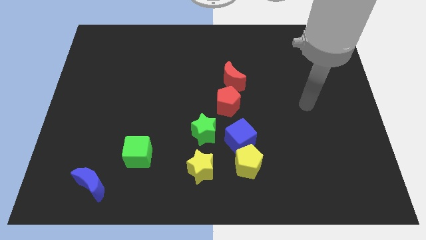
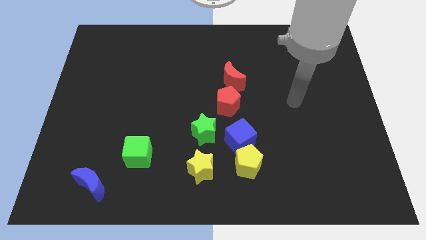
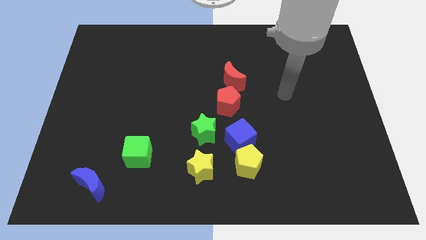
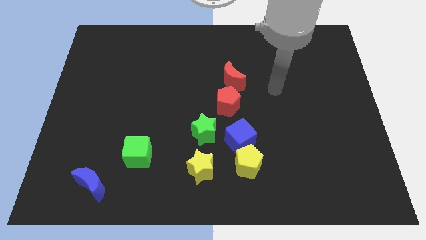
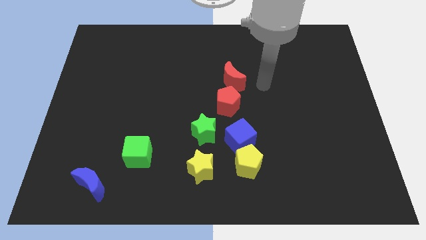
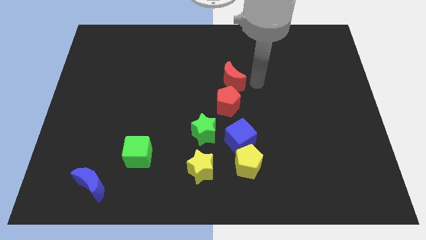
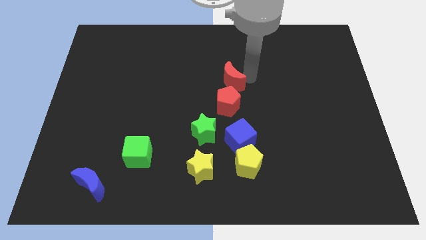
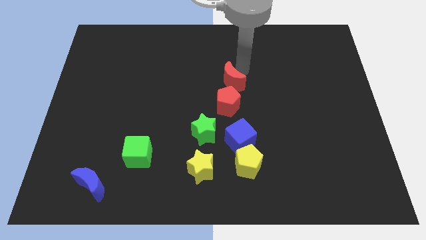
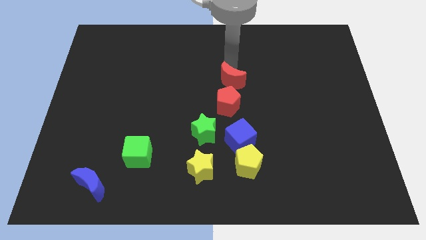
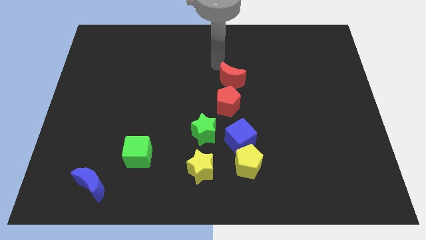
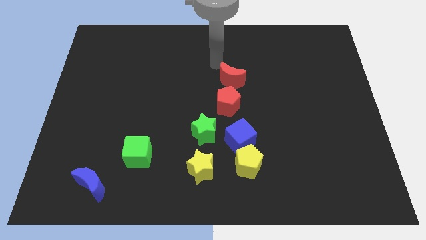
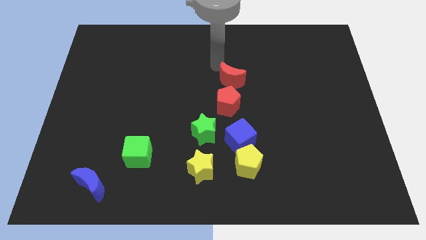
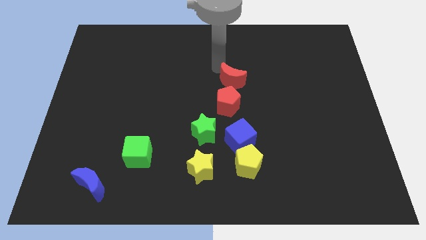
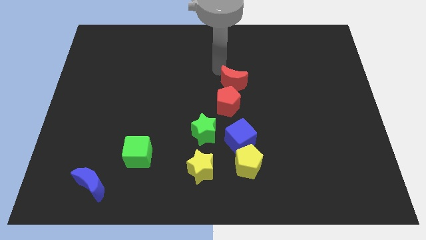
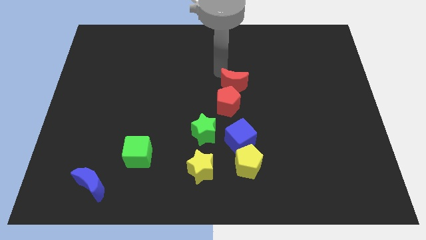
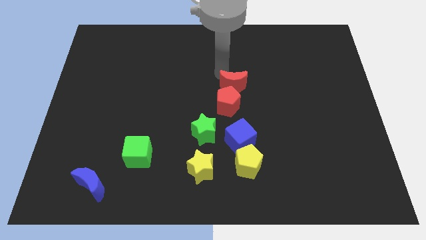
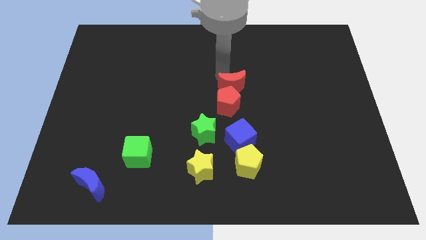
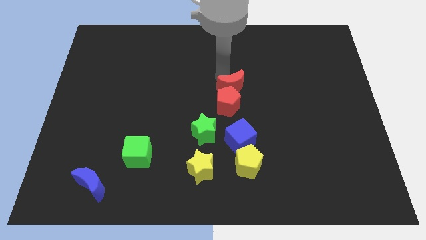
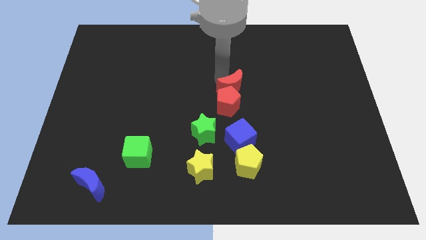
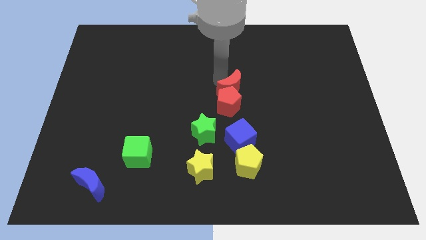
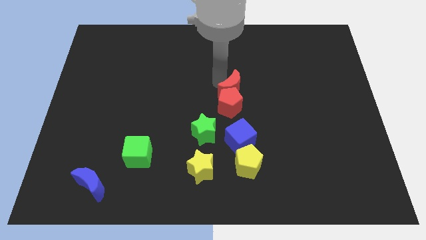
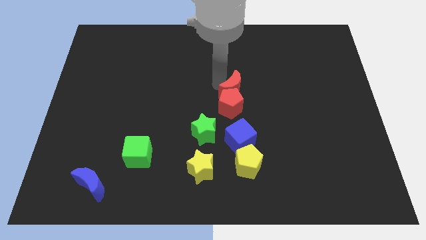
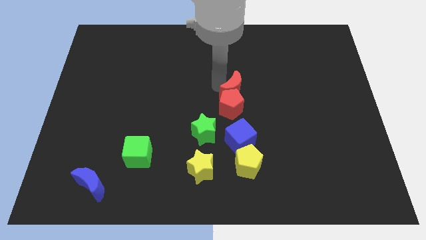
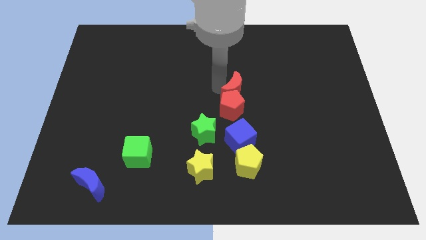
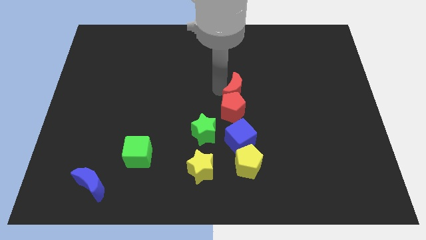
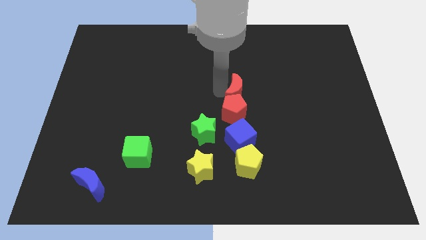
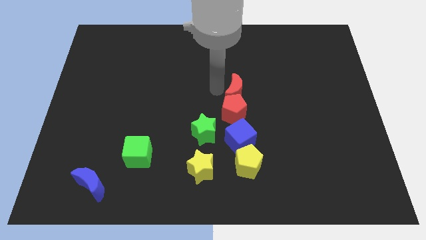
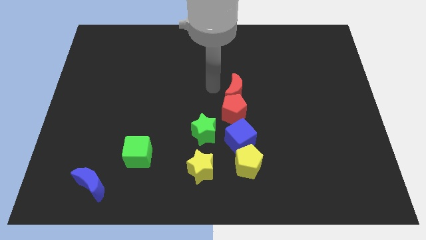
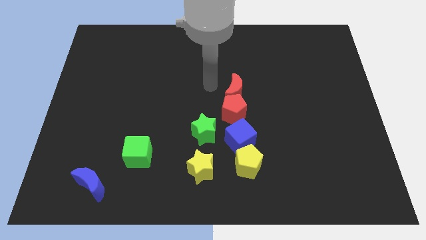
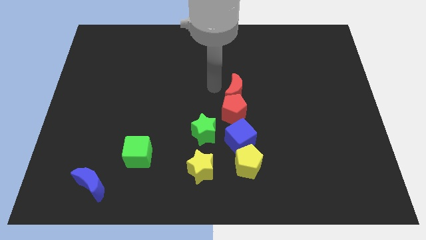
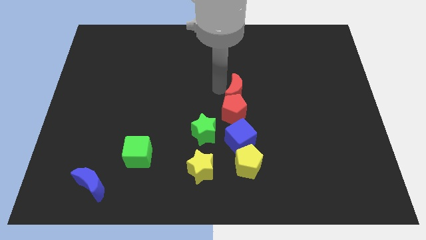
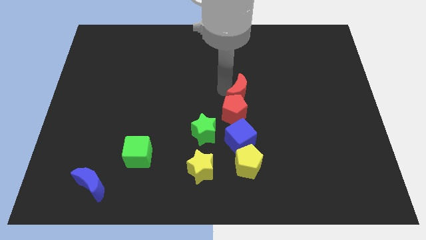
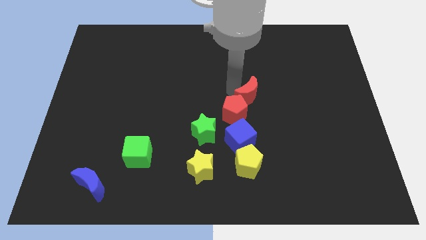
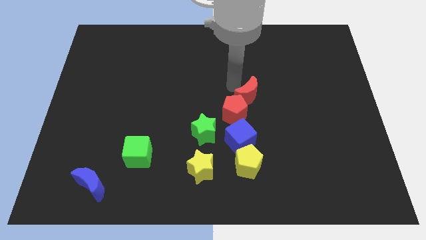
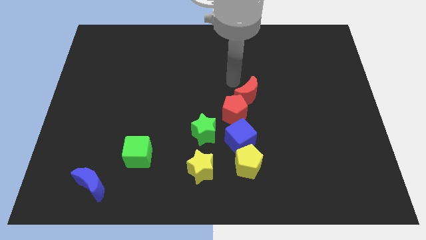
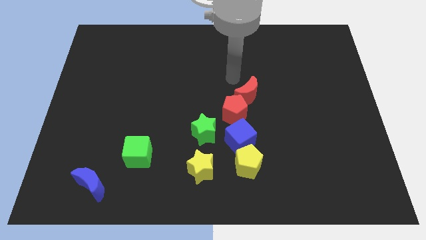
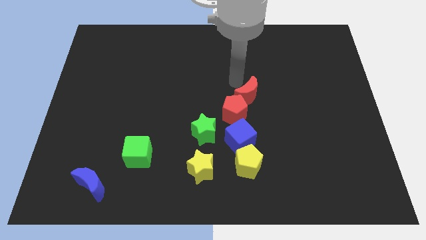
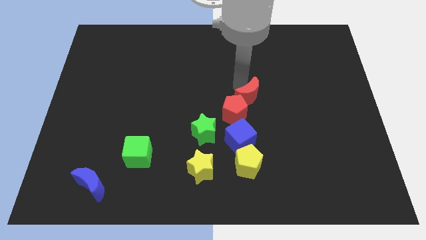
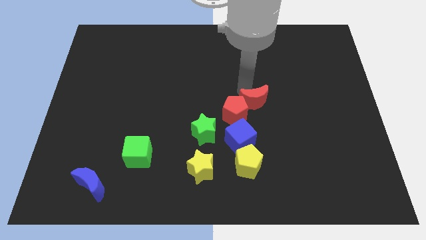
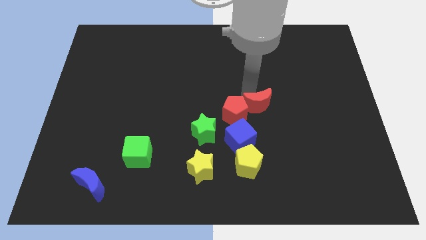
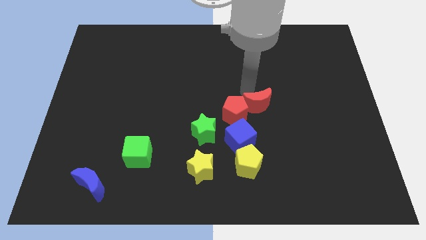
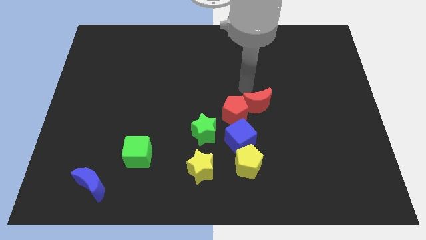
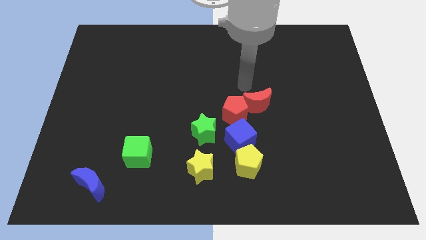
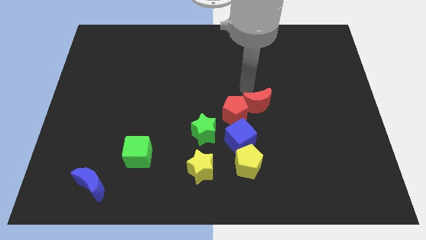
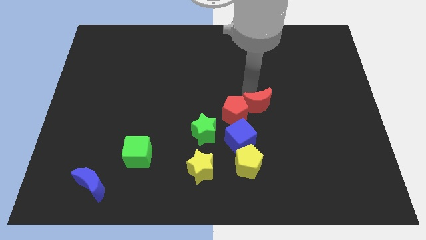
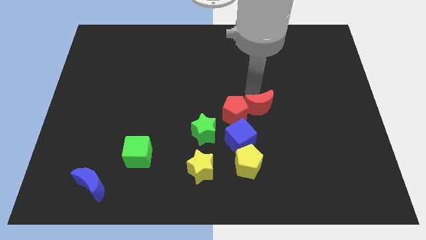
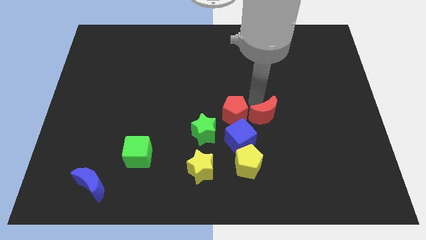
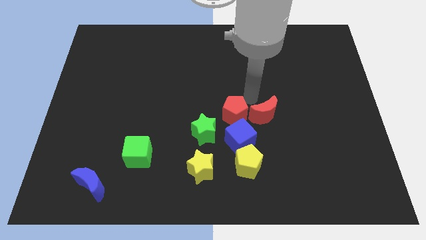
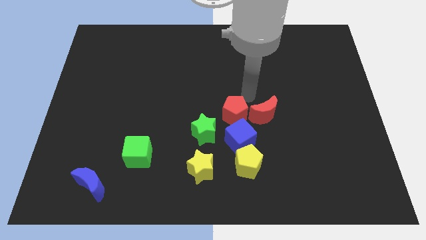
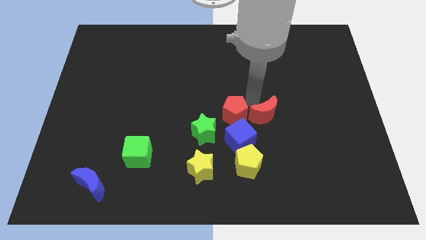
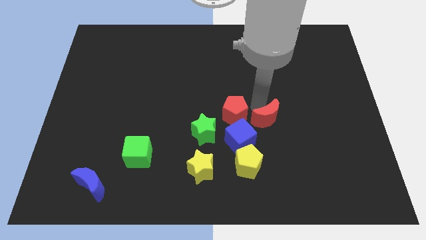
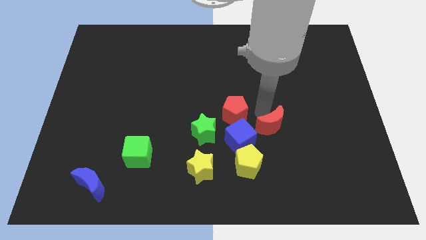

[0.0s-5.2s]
move the red moon to the right of the blue cube

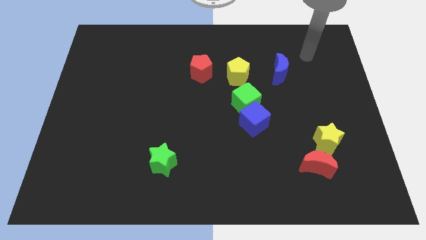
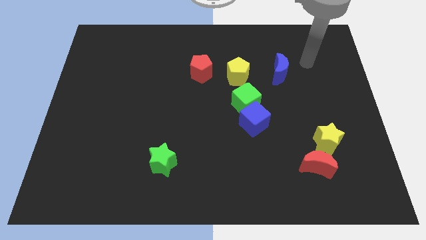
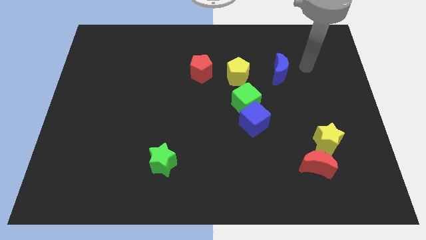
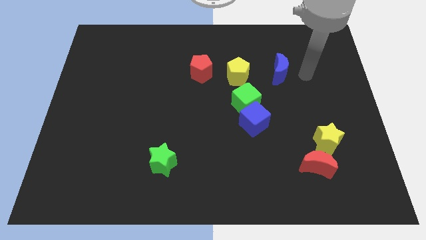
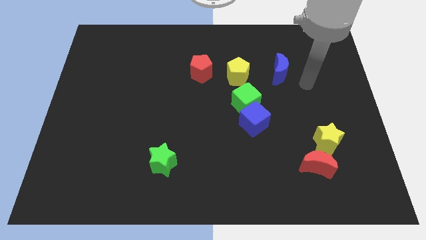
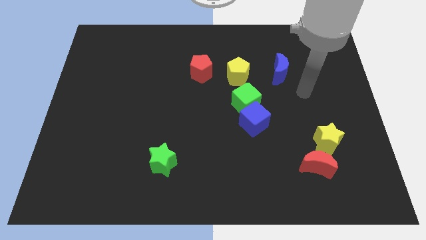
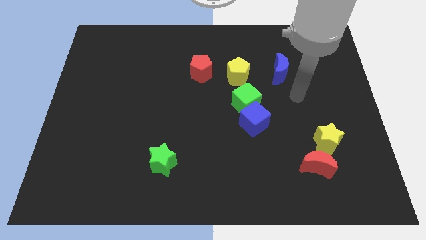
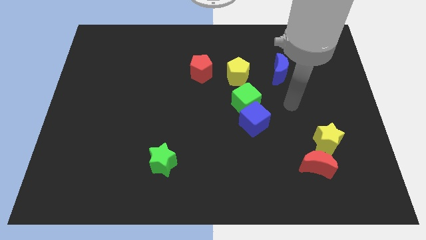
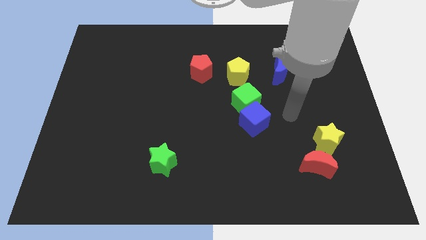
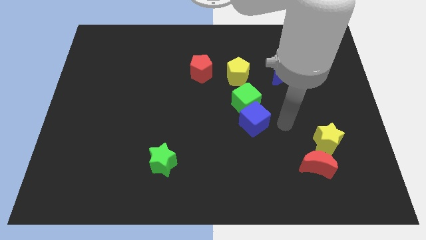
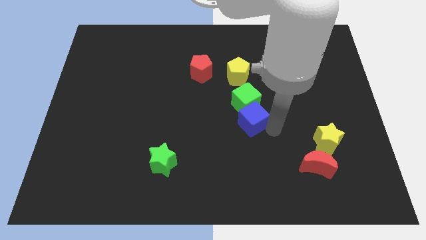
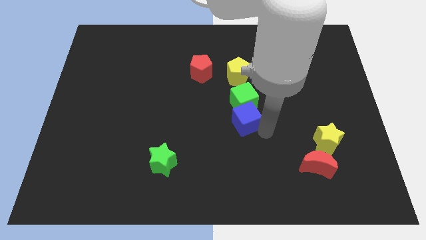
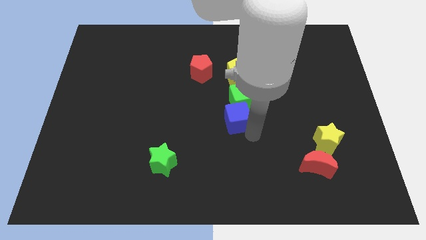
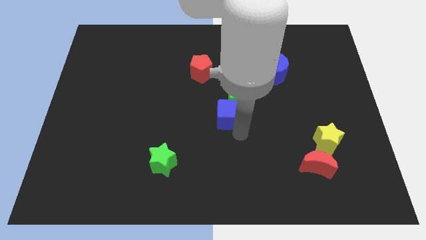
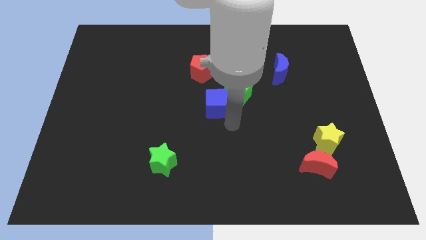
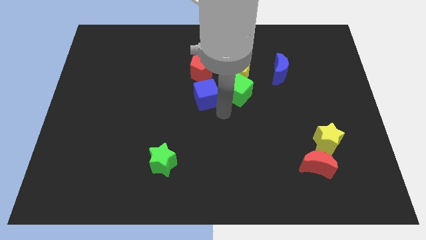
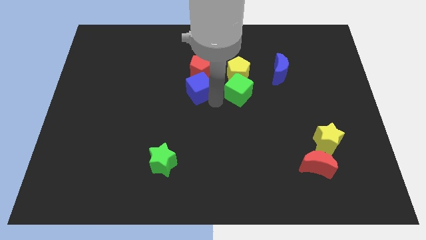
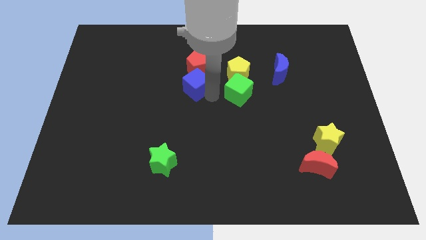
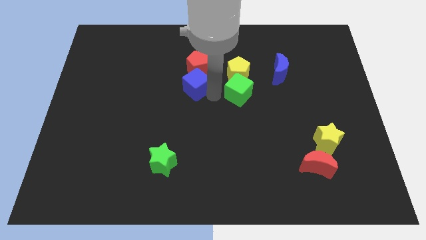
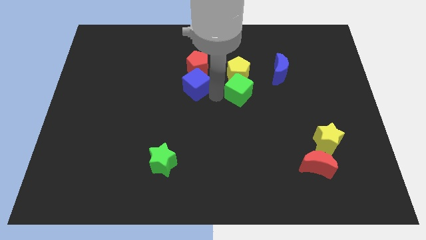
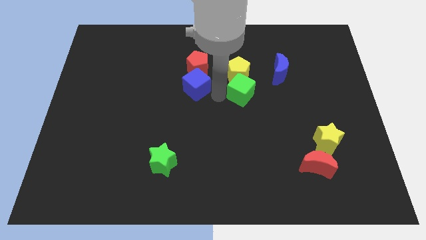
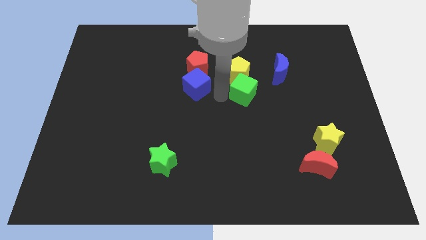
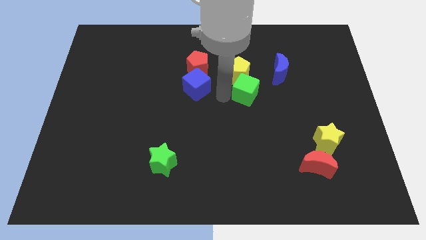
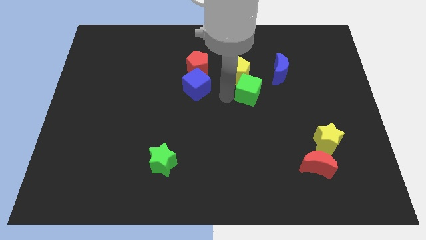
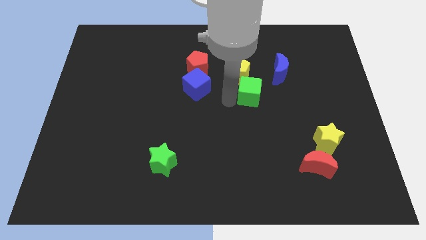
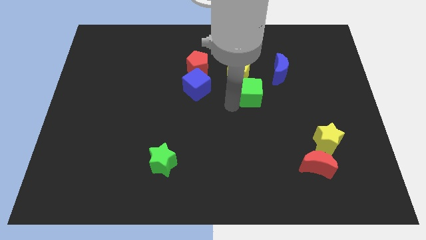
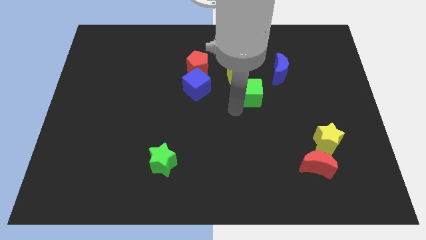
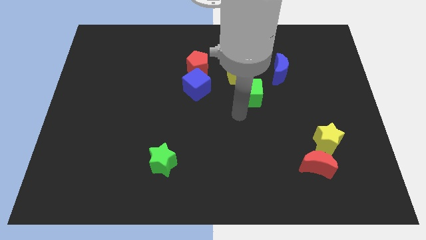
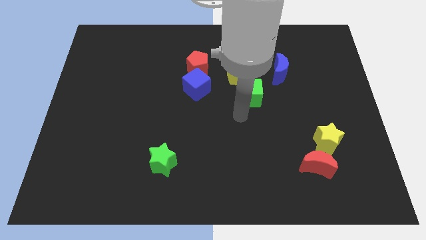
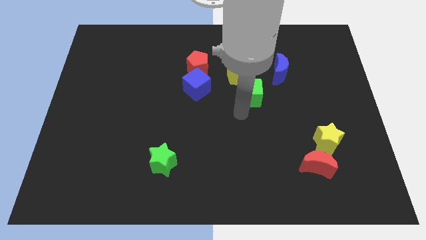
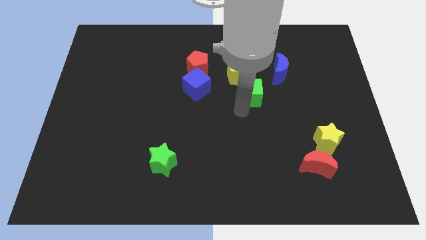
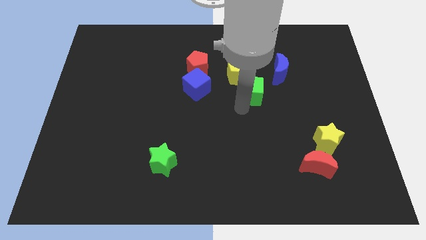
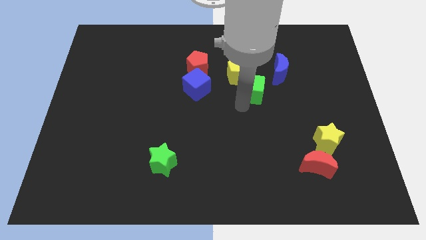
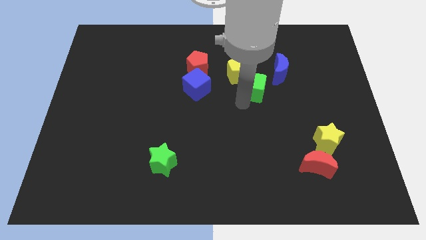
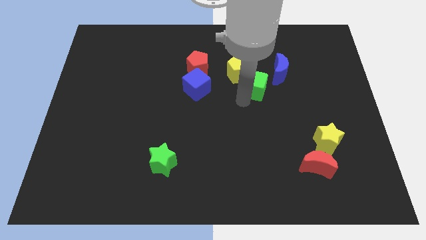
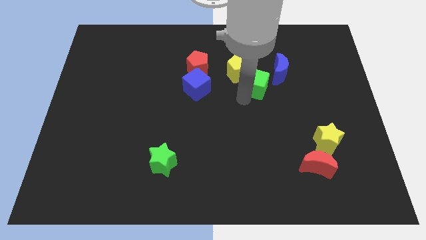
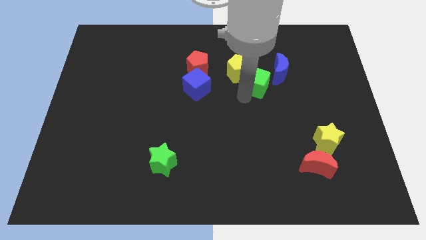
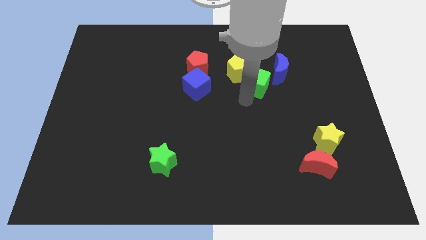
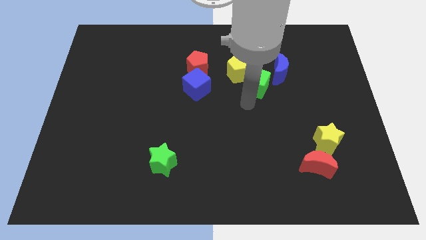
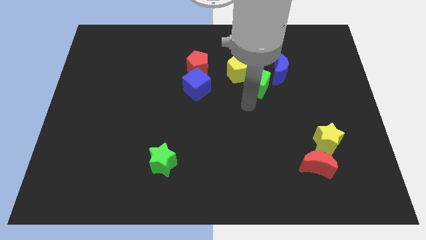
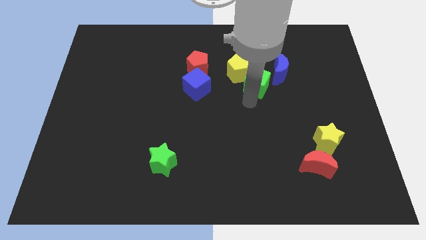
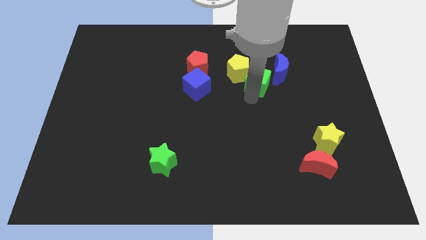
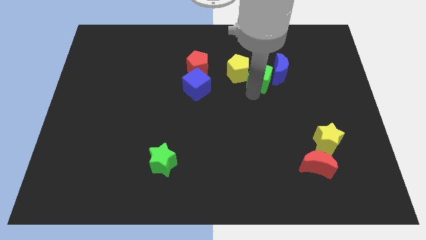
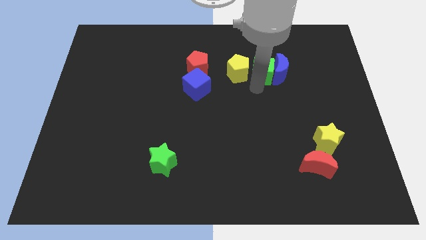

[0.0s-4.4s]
move the green cube to the top left of the blue moon
